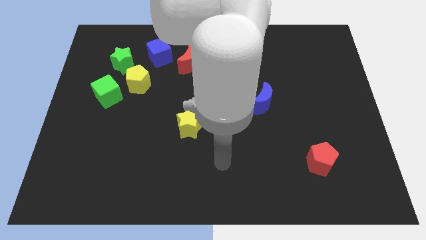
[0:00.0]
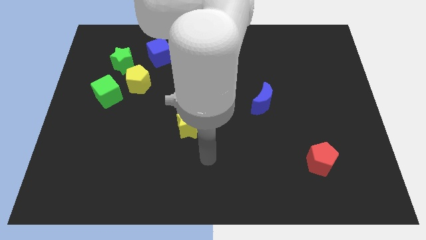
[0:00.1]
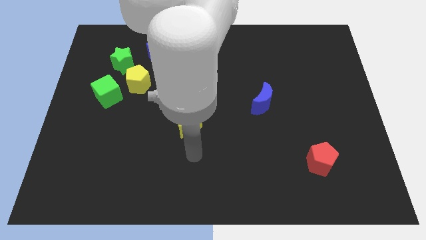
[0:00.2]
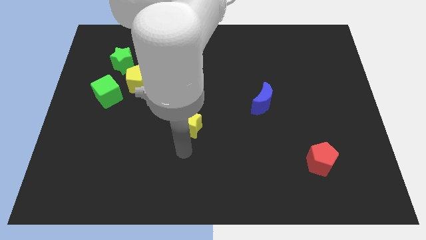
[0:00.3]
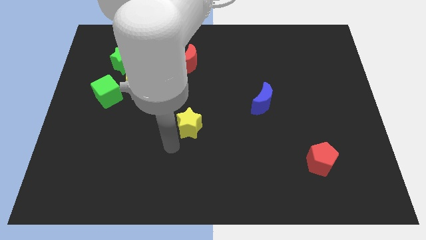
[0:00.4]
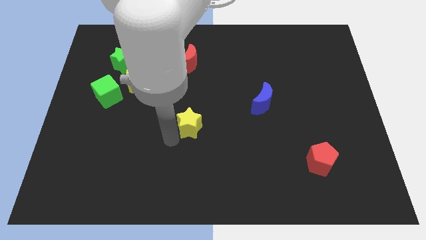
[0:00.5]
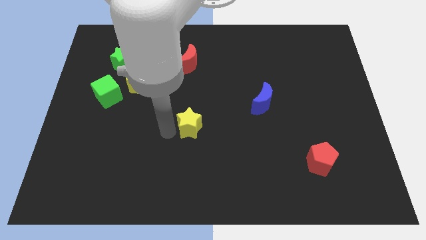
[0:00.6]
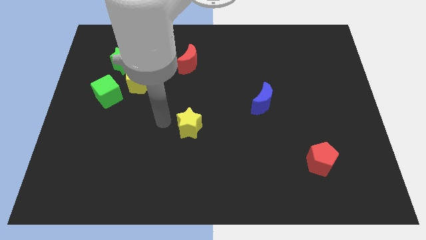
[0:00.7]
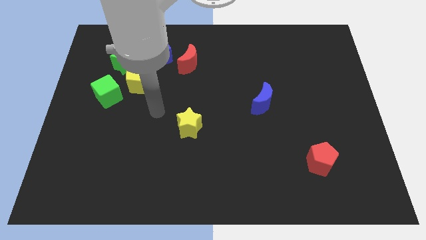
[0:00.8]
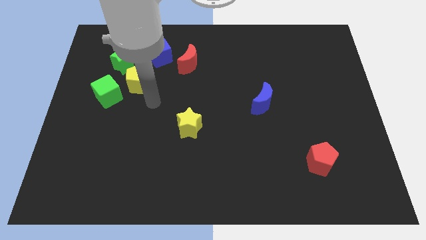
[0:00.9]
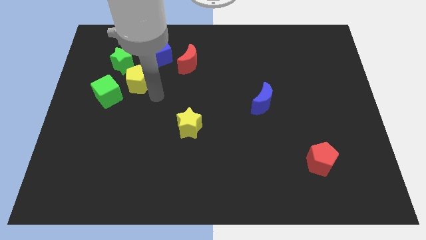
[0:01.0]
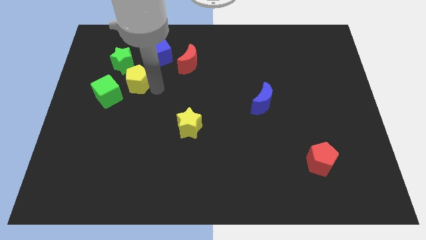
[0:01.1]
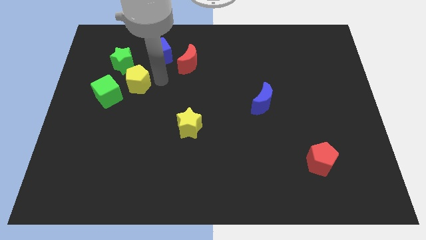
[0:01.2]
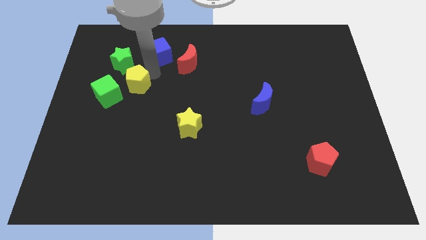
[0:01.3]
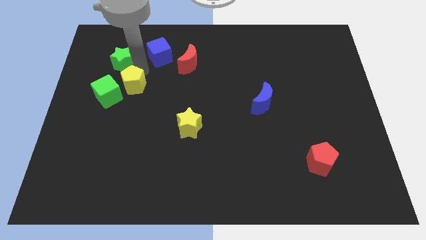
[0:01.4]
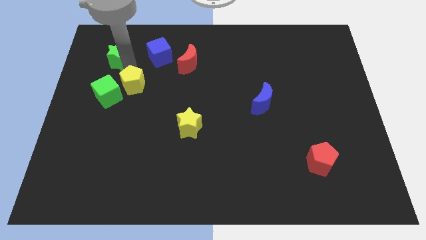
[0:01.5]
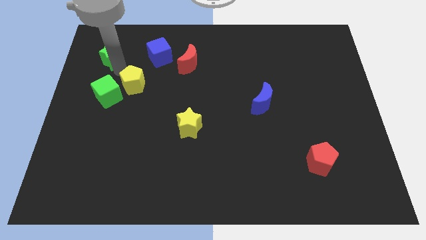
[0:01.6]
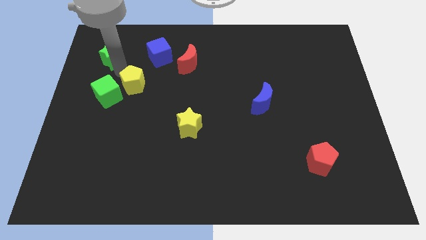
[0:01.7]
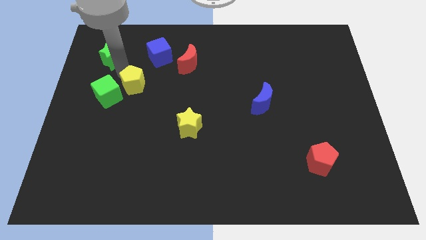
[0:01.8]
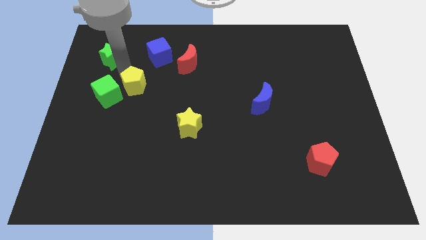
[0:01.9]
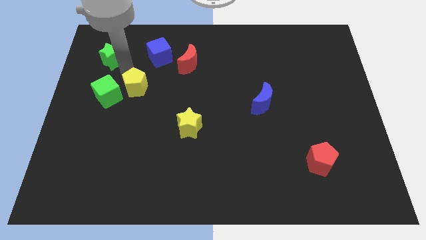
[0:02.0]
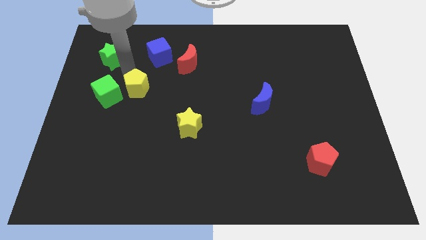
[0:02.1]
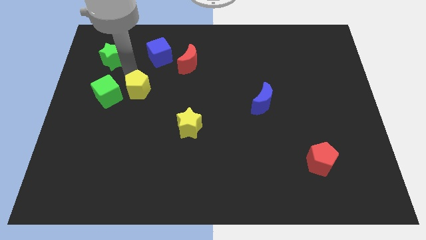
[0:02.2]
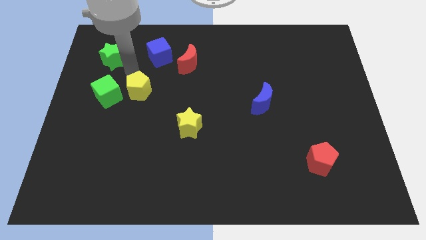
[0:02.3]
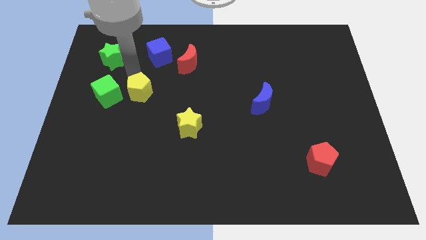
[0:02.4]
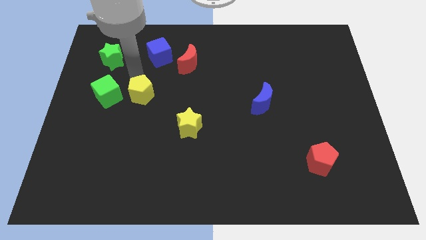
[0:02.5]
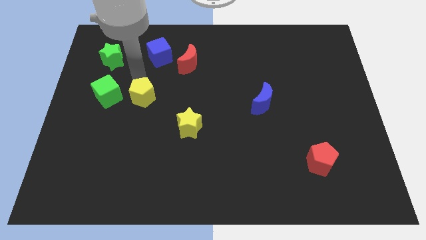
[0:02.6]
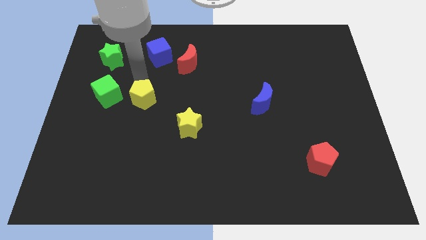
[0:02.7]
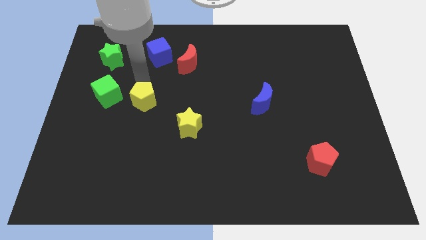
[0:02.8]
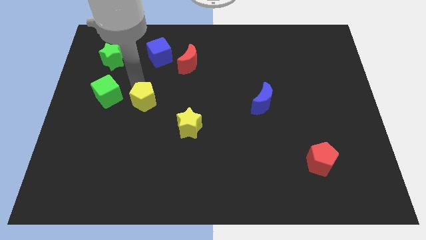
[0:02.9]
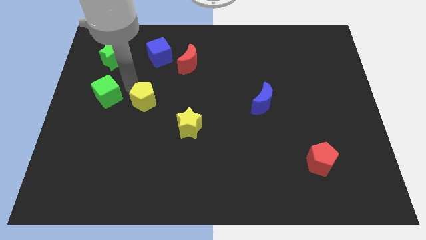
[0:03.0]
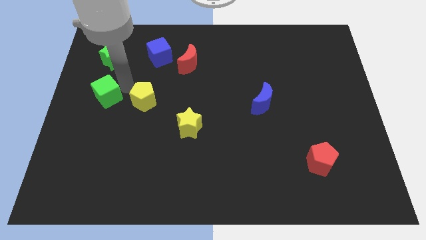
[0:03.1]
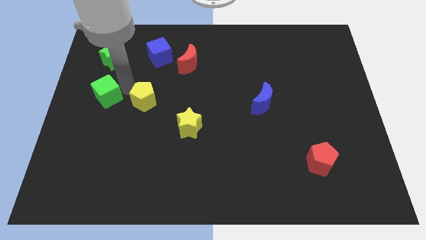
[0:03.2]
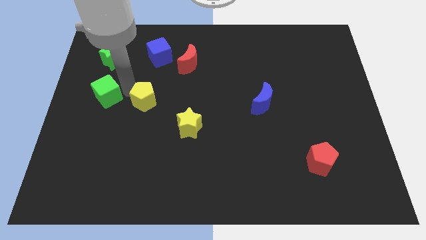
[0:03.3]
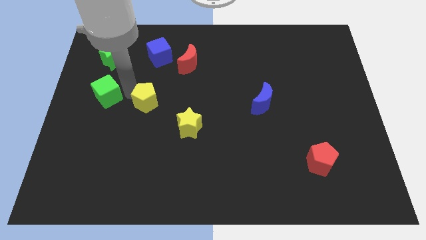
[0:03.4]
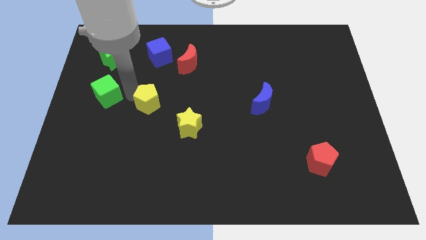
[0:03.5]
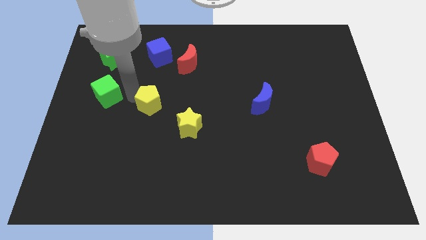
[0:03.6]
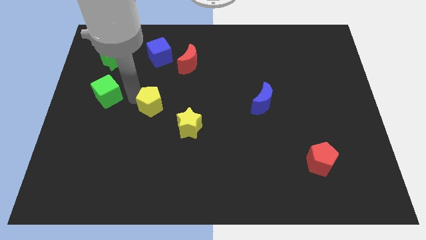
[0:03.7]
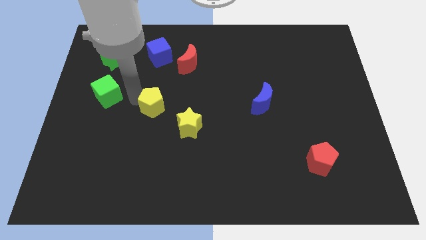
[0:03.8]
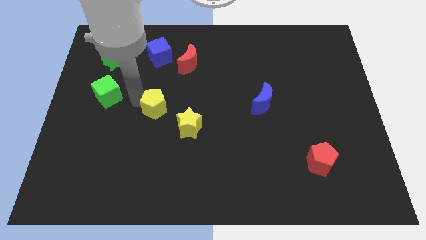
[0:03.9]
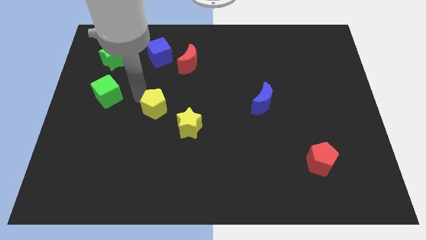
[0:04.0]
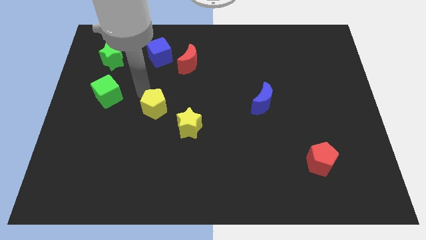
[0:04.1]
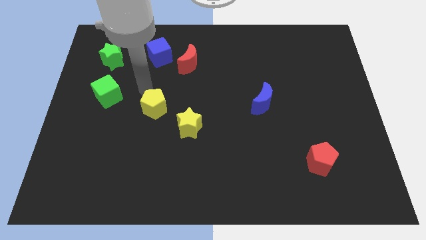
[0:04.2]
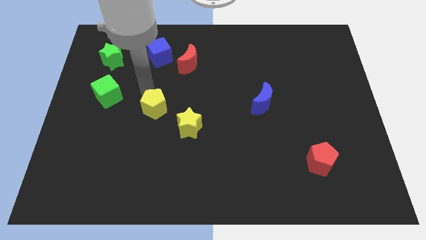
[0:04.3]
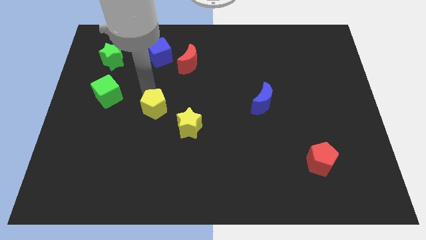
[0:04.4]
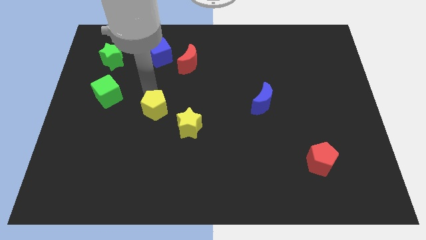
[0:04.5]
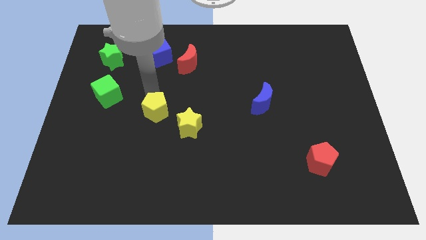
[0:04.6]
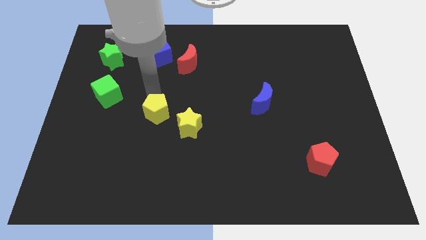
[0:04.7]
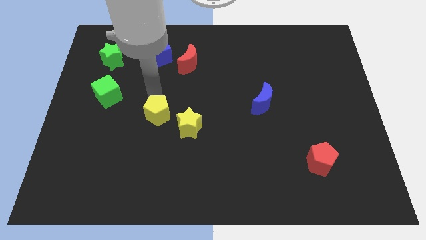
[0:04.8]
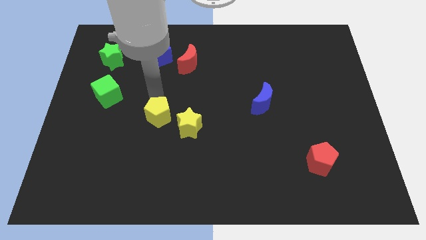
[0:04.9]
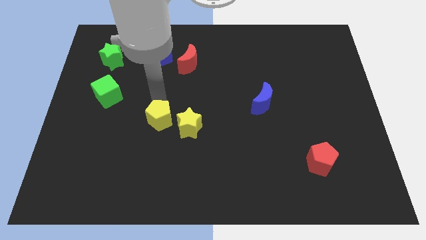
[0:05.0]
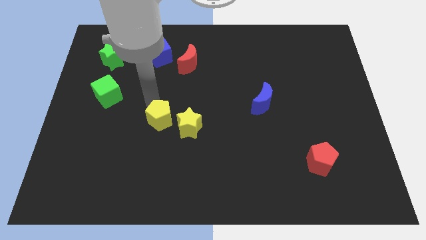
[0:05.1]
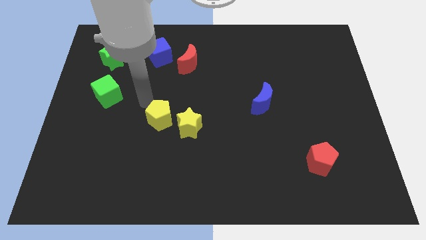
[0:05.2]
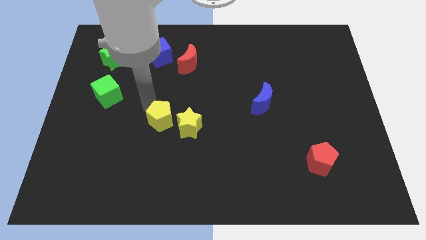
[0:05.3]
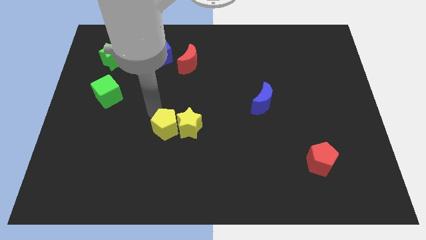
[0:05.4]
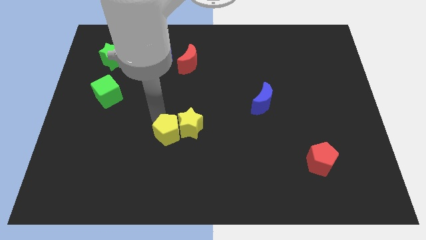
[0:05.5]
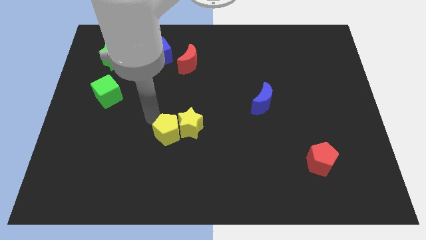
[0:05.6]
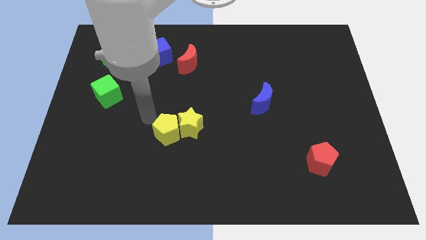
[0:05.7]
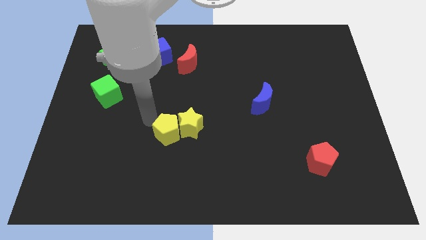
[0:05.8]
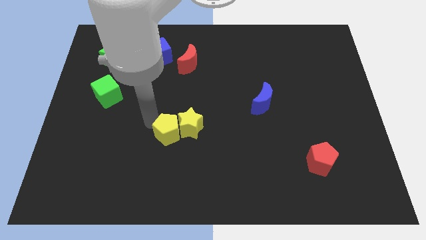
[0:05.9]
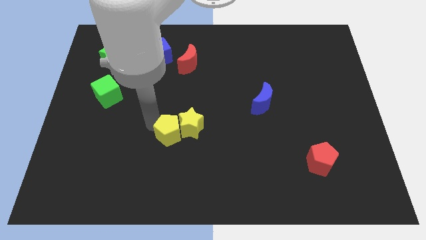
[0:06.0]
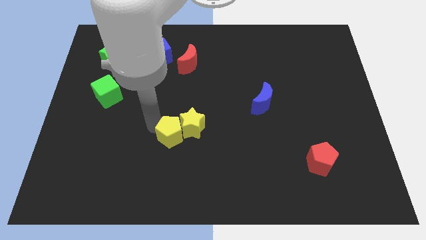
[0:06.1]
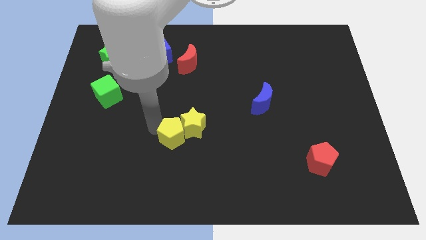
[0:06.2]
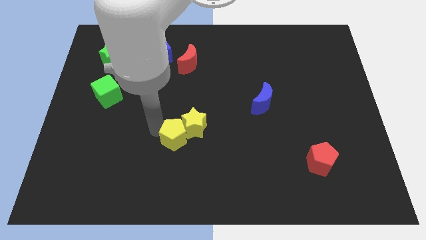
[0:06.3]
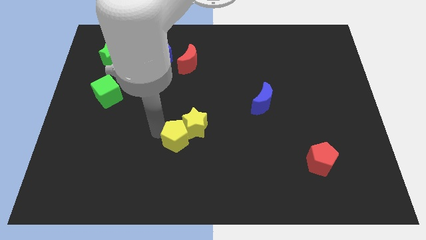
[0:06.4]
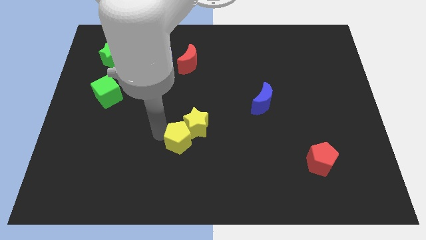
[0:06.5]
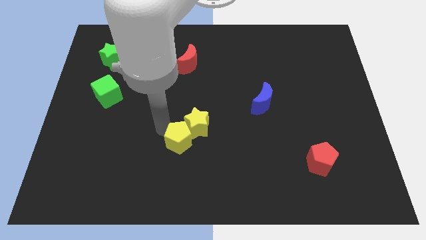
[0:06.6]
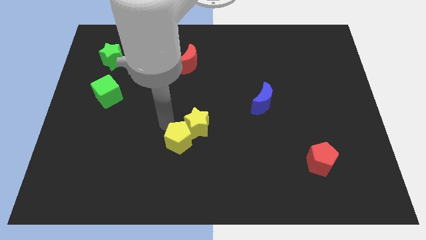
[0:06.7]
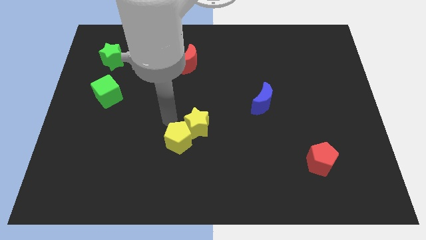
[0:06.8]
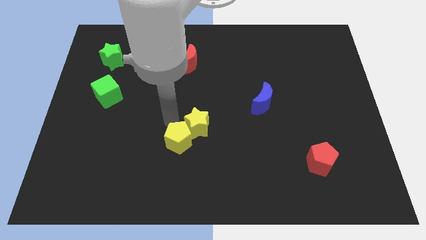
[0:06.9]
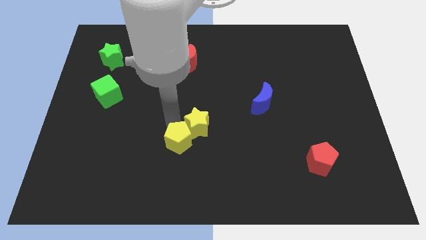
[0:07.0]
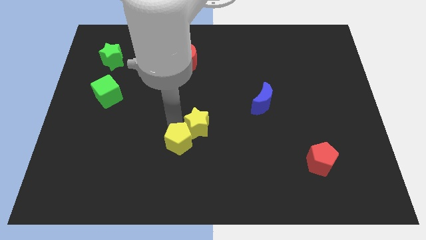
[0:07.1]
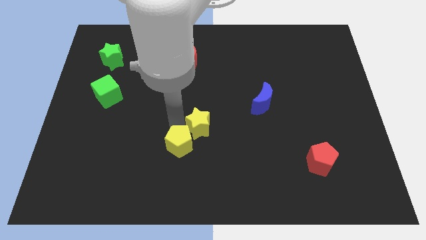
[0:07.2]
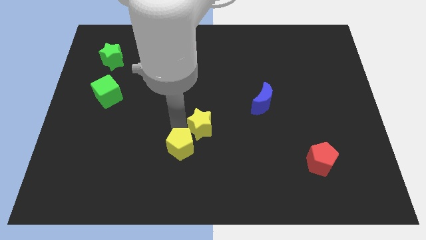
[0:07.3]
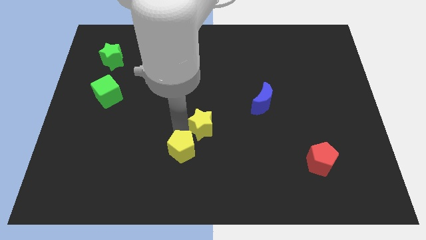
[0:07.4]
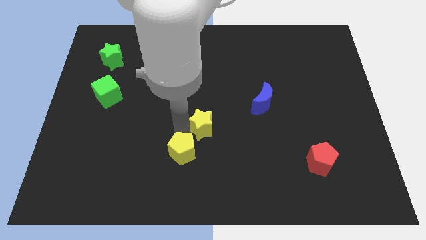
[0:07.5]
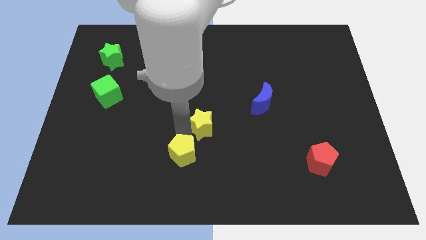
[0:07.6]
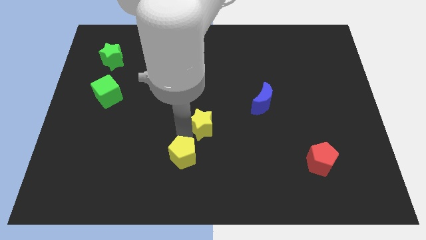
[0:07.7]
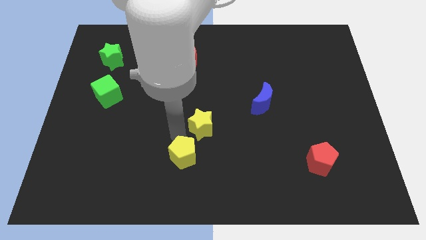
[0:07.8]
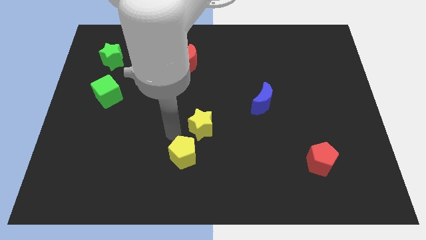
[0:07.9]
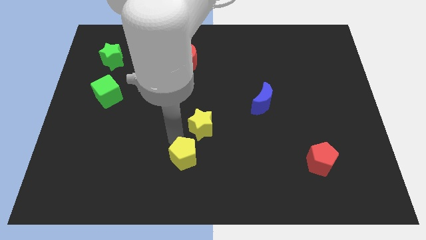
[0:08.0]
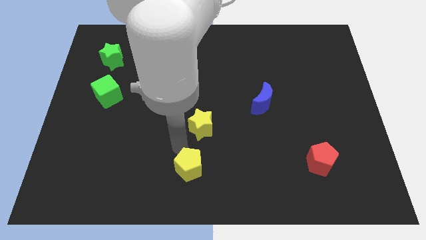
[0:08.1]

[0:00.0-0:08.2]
slide the yellow pentagon to the bottom side
